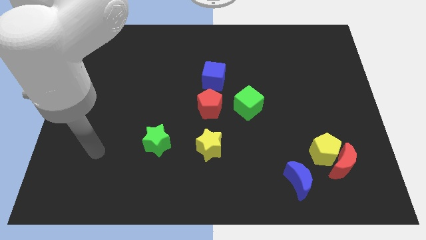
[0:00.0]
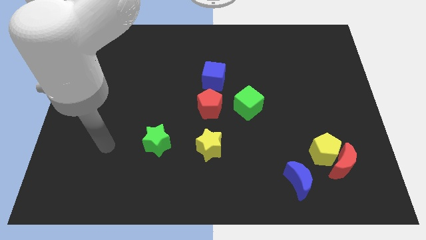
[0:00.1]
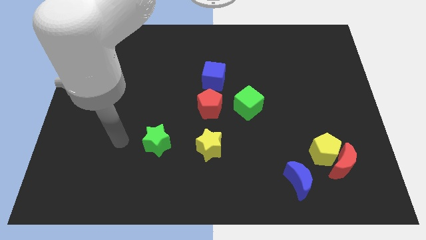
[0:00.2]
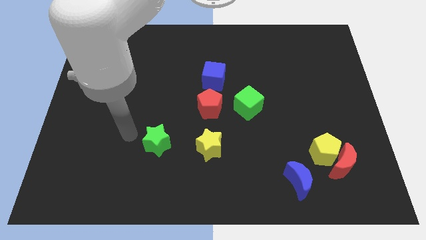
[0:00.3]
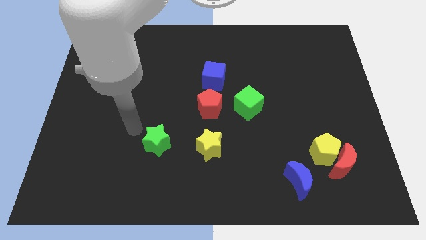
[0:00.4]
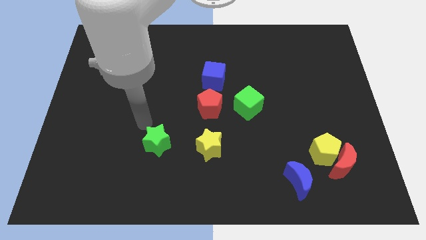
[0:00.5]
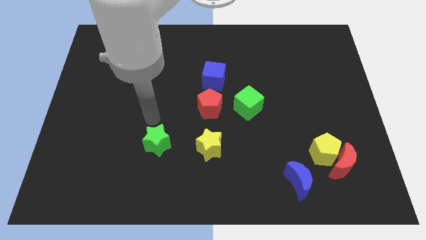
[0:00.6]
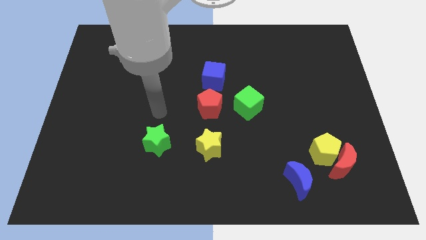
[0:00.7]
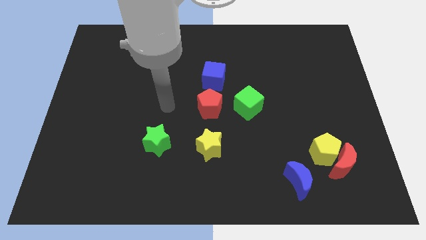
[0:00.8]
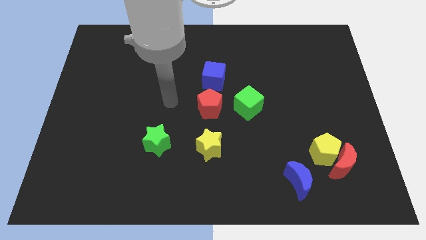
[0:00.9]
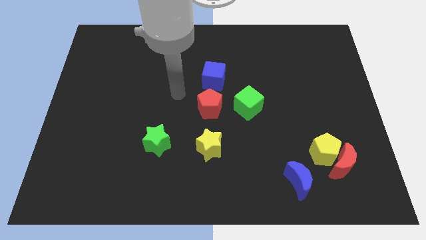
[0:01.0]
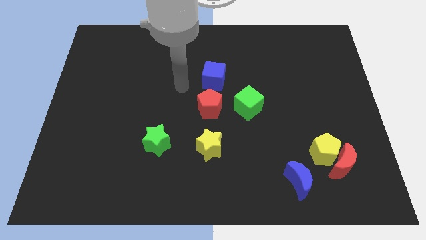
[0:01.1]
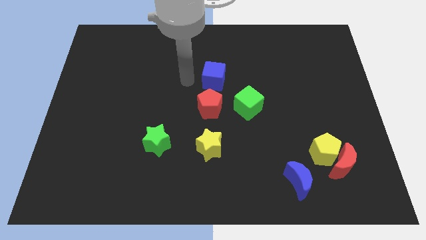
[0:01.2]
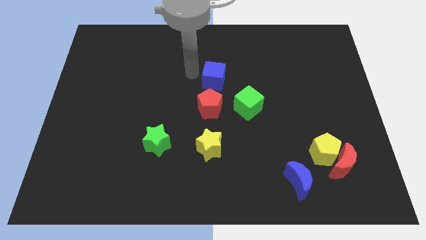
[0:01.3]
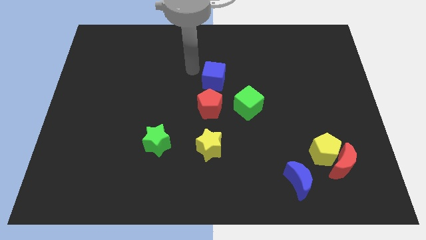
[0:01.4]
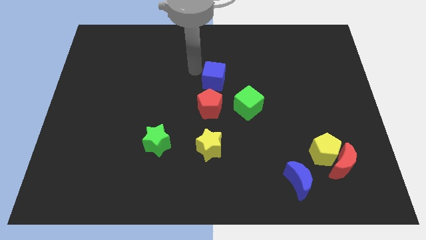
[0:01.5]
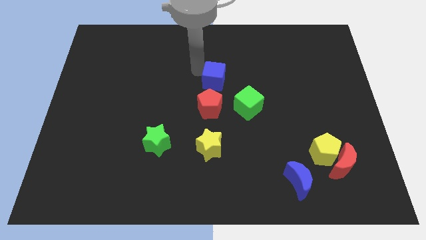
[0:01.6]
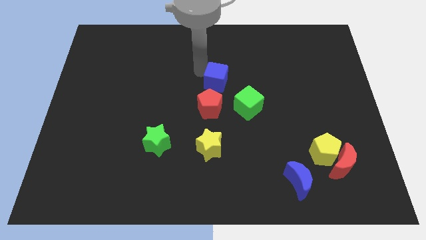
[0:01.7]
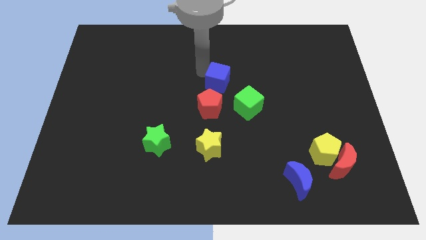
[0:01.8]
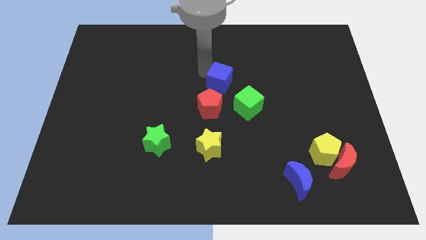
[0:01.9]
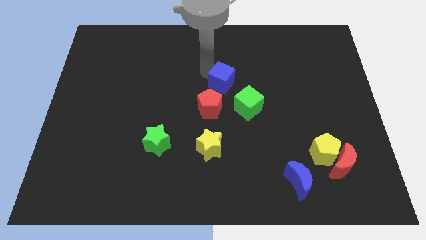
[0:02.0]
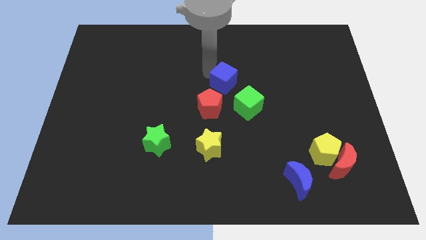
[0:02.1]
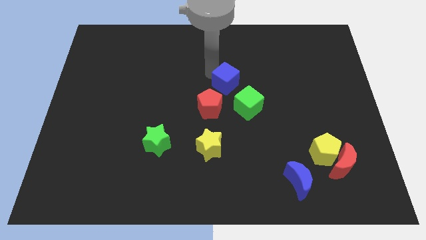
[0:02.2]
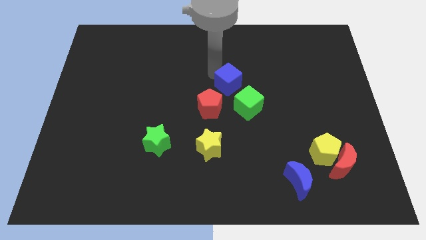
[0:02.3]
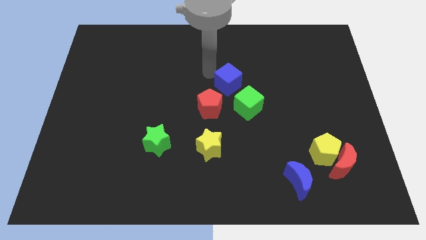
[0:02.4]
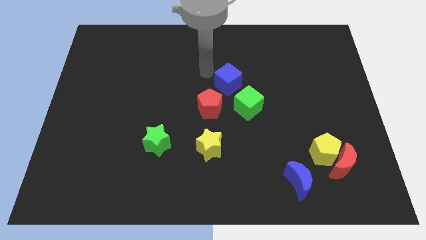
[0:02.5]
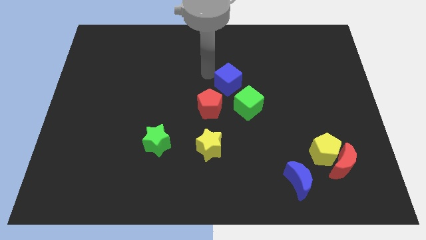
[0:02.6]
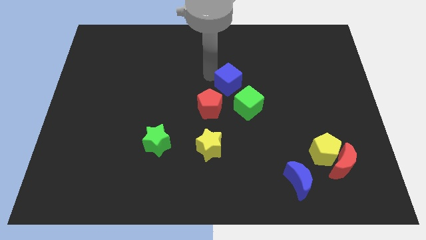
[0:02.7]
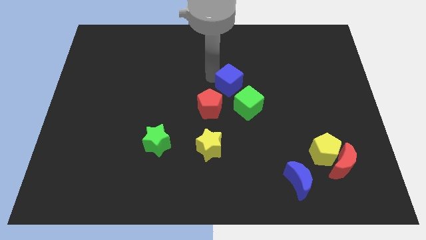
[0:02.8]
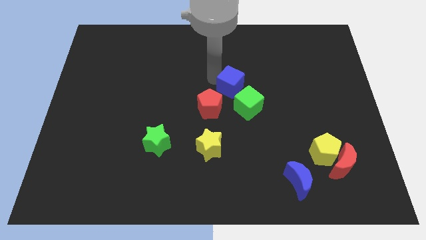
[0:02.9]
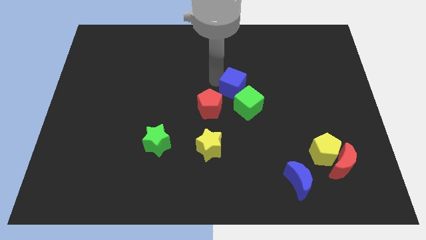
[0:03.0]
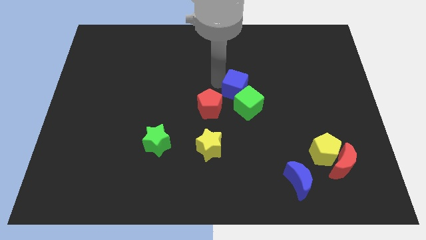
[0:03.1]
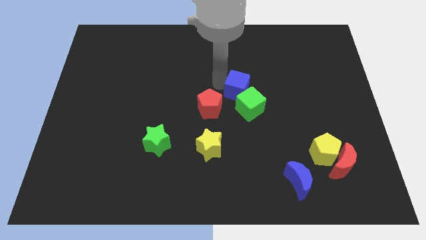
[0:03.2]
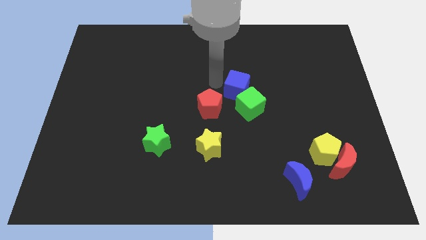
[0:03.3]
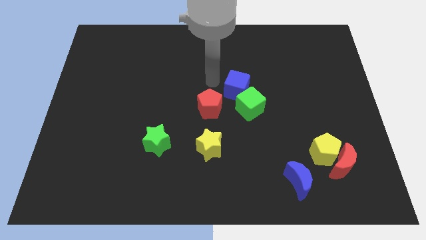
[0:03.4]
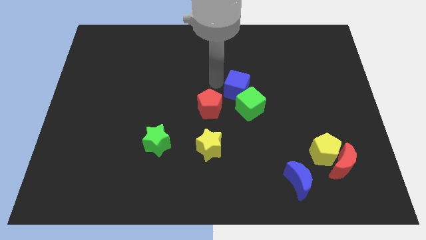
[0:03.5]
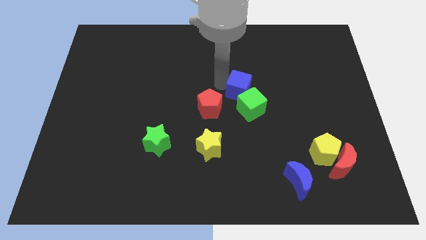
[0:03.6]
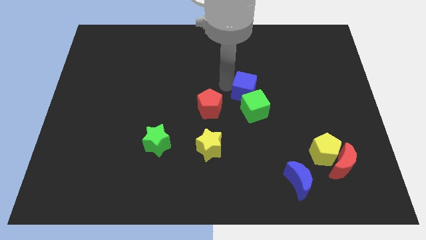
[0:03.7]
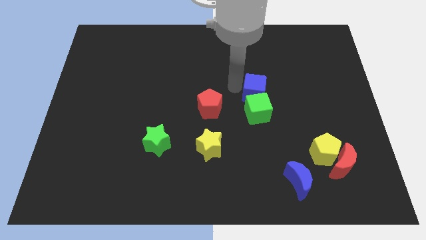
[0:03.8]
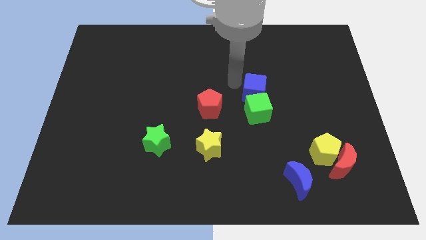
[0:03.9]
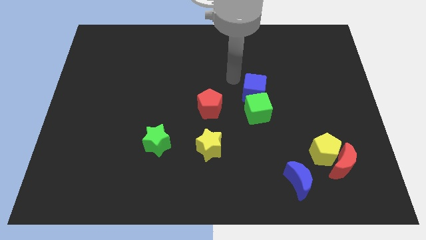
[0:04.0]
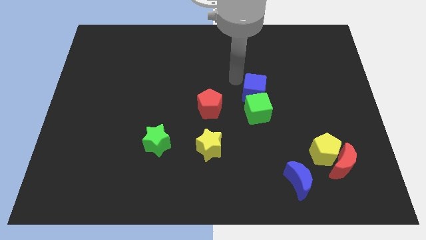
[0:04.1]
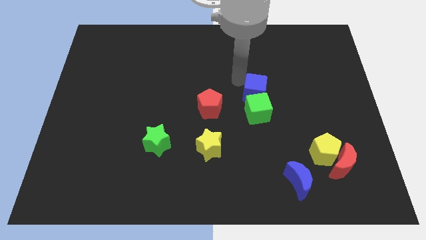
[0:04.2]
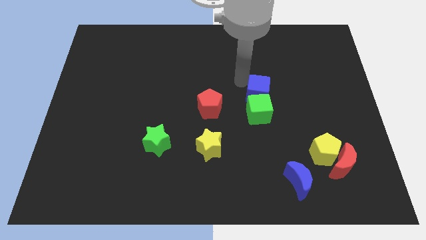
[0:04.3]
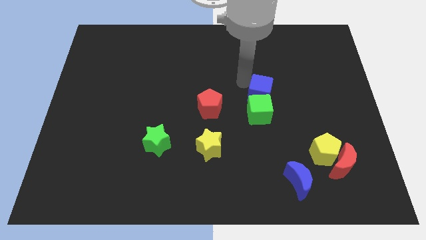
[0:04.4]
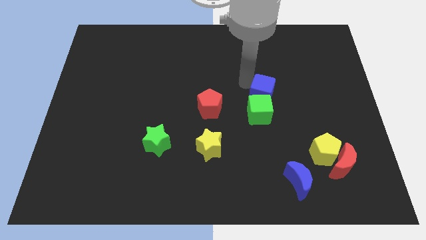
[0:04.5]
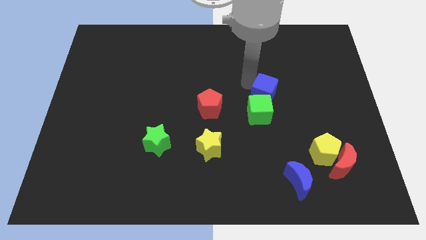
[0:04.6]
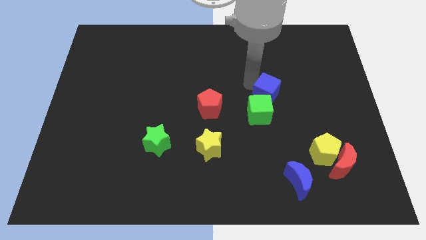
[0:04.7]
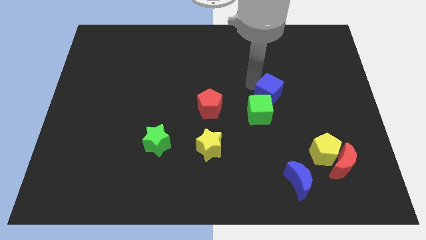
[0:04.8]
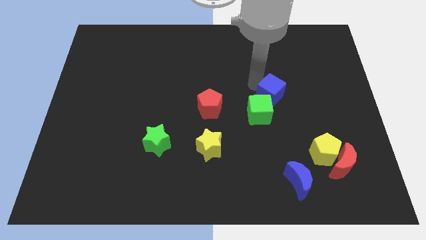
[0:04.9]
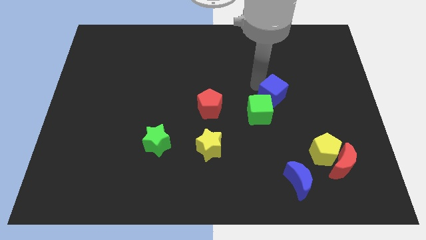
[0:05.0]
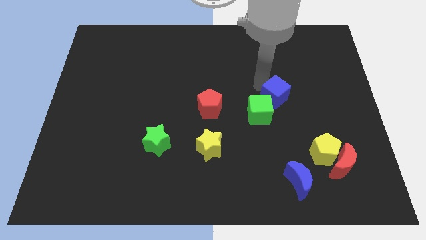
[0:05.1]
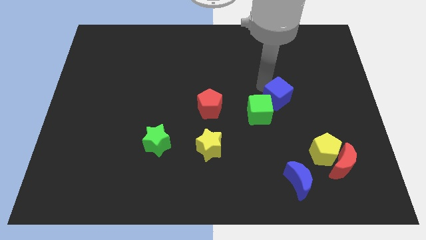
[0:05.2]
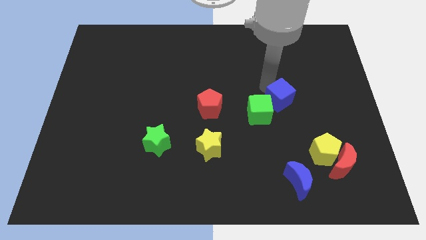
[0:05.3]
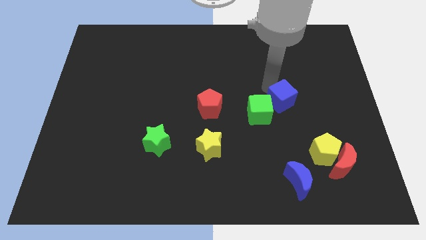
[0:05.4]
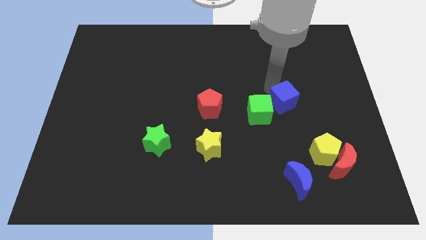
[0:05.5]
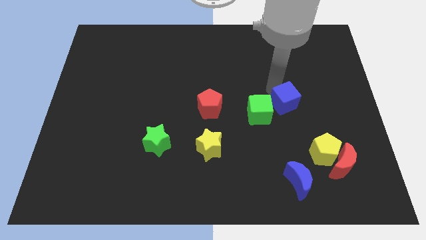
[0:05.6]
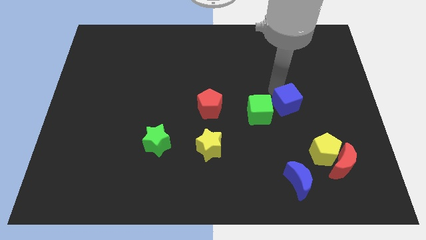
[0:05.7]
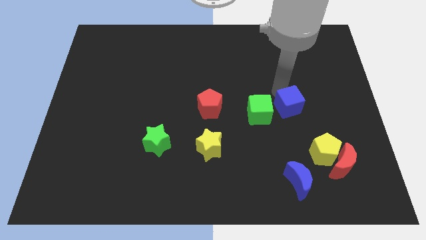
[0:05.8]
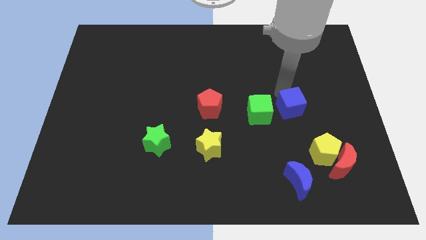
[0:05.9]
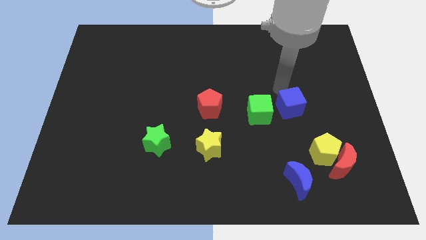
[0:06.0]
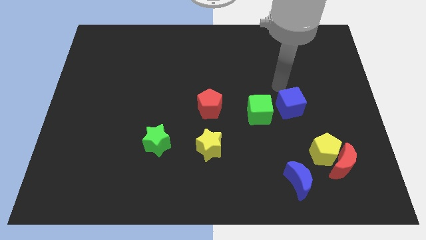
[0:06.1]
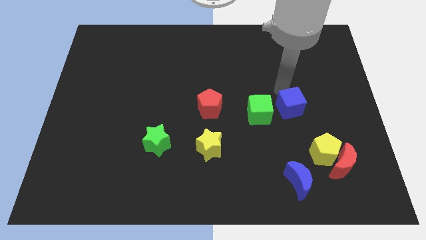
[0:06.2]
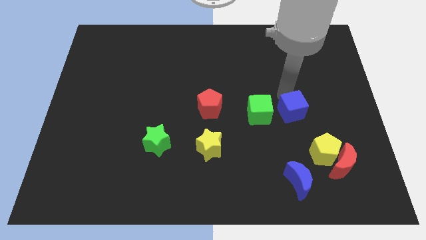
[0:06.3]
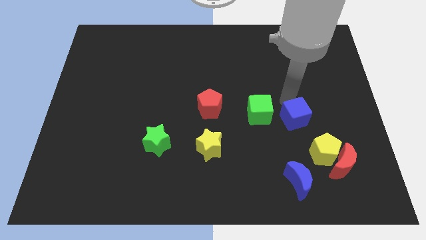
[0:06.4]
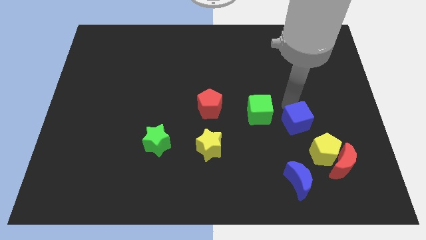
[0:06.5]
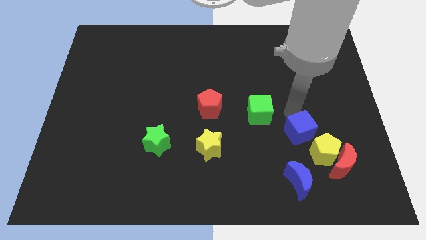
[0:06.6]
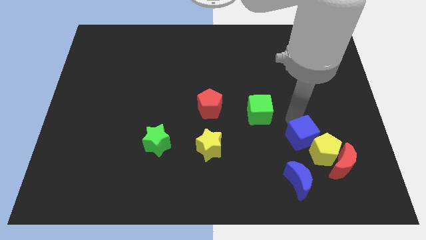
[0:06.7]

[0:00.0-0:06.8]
put the blue cube towards the yellow pentagon
